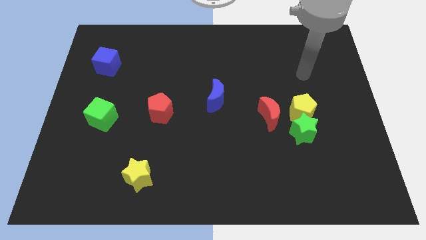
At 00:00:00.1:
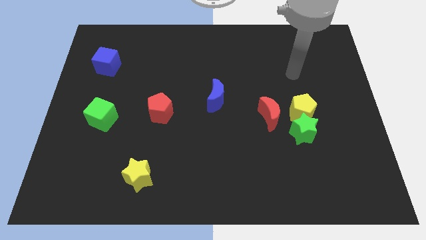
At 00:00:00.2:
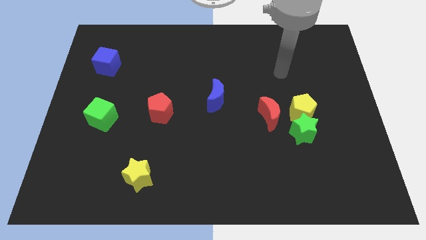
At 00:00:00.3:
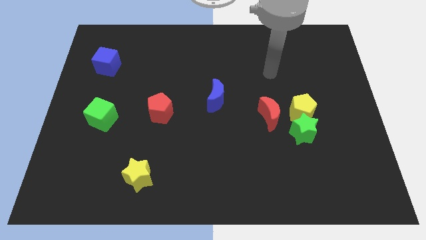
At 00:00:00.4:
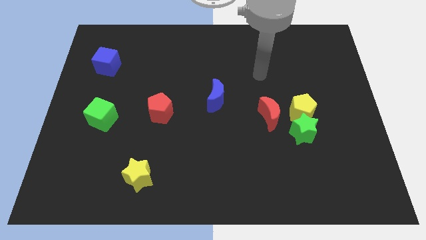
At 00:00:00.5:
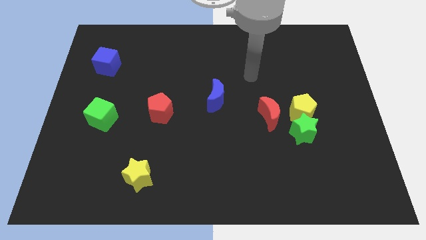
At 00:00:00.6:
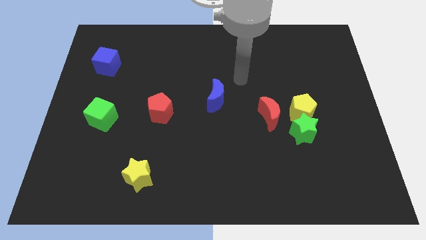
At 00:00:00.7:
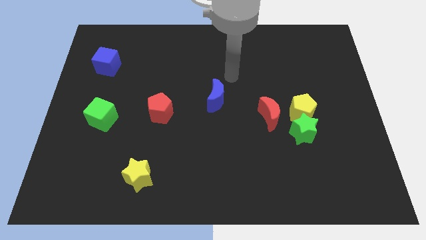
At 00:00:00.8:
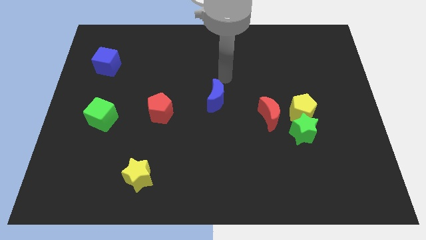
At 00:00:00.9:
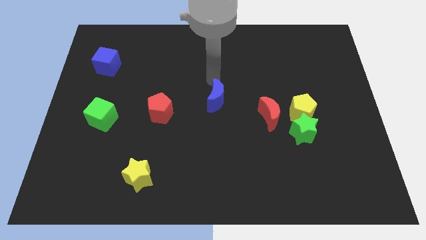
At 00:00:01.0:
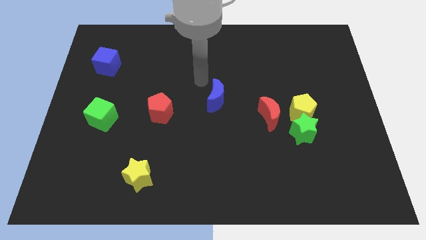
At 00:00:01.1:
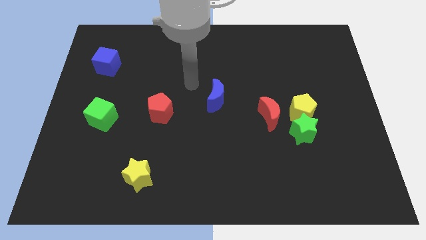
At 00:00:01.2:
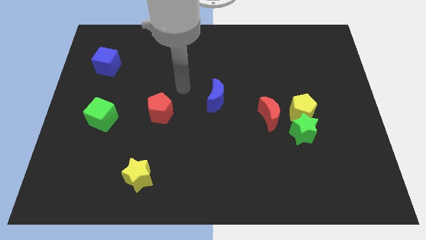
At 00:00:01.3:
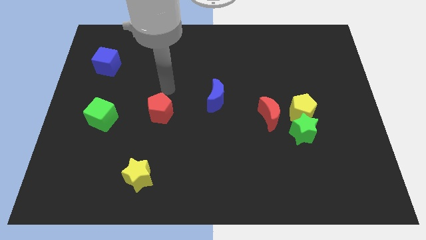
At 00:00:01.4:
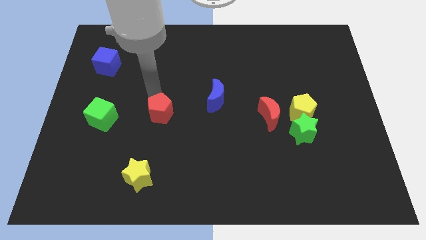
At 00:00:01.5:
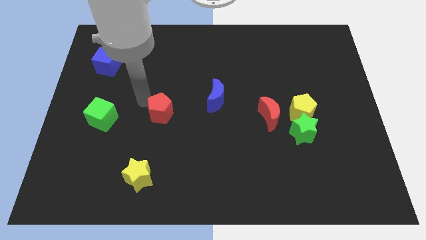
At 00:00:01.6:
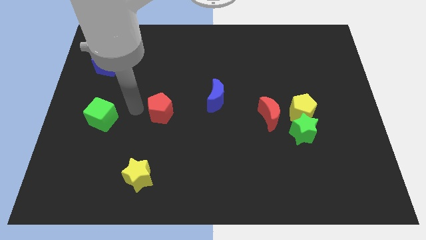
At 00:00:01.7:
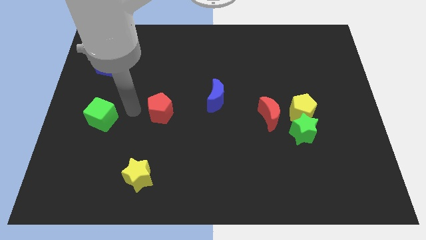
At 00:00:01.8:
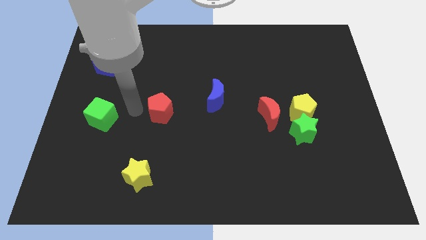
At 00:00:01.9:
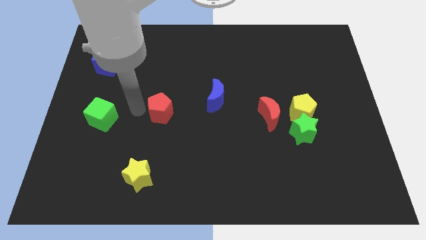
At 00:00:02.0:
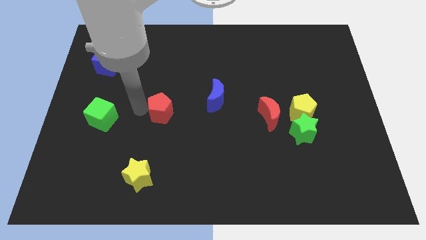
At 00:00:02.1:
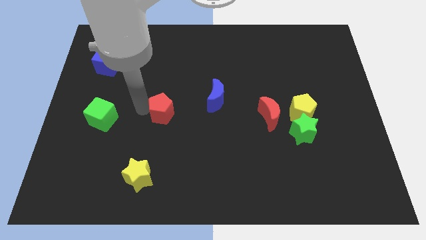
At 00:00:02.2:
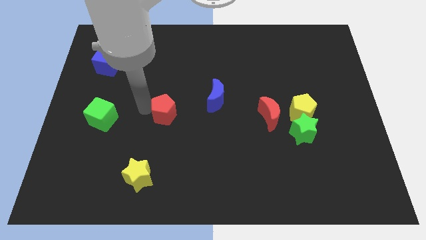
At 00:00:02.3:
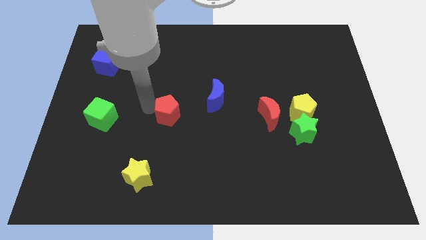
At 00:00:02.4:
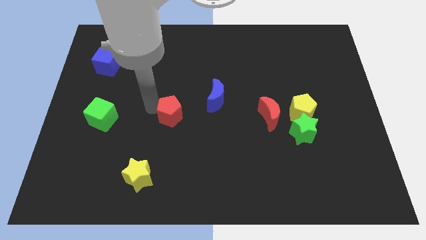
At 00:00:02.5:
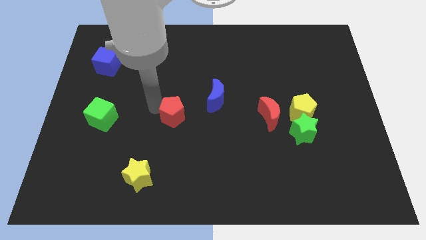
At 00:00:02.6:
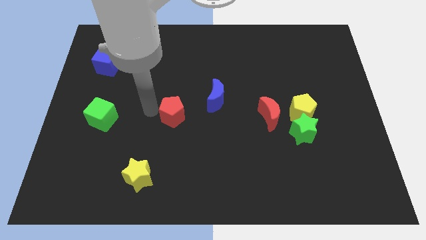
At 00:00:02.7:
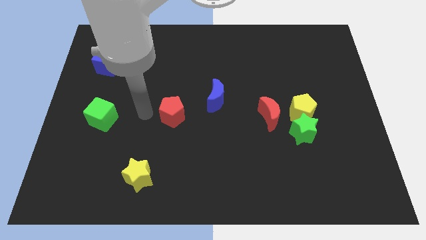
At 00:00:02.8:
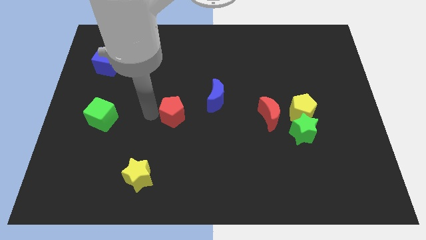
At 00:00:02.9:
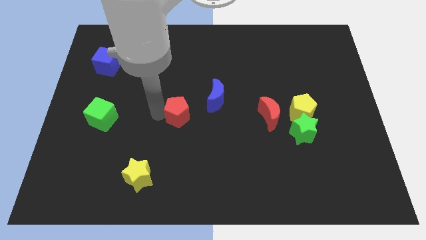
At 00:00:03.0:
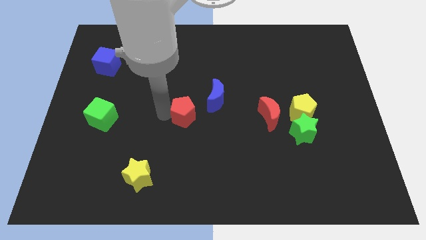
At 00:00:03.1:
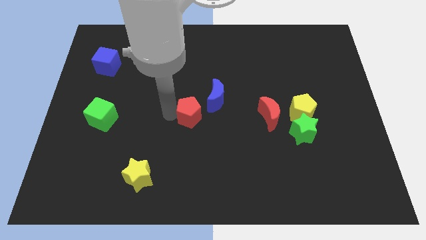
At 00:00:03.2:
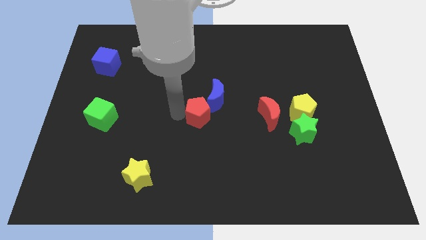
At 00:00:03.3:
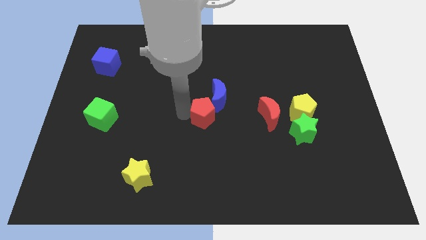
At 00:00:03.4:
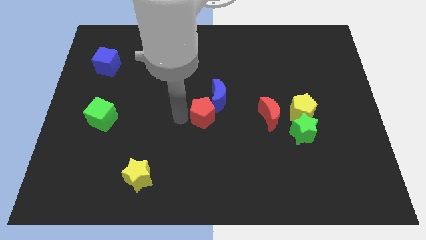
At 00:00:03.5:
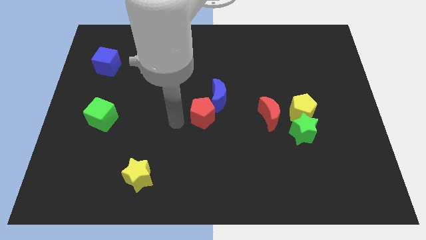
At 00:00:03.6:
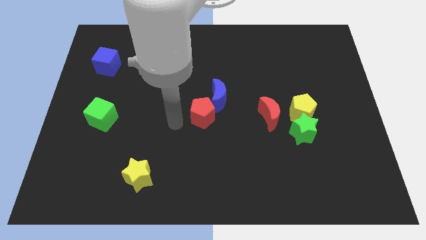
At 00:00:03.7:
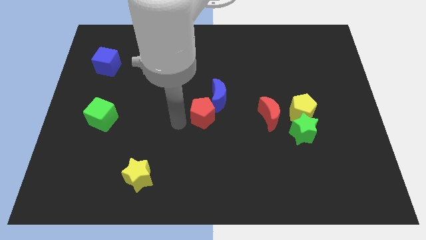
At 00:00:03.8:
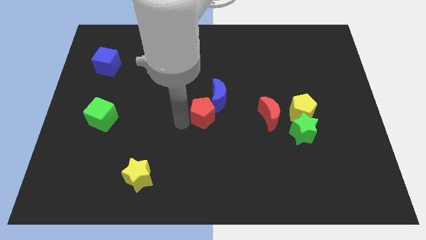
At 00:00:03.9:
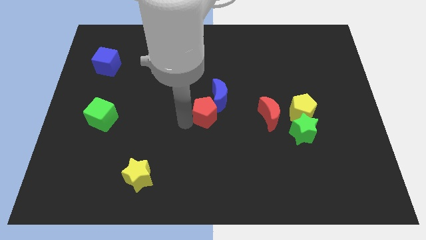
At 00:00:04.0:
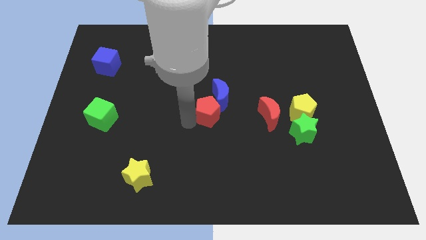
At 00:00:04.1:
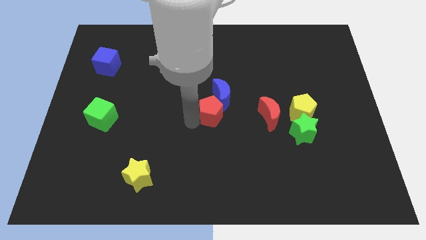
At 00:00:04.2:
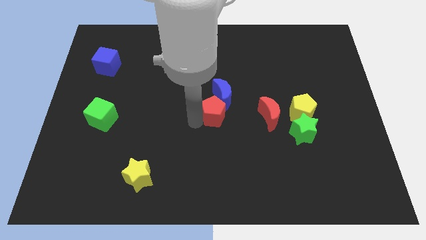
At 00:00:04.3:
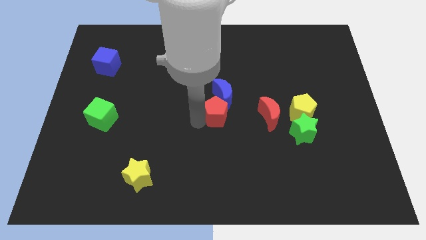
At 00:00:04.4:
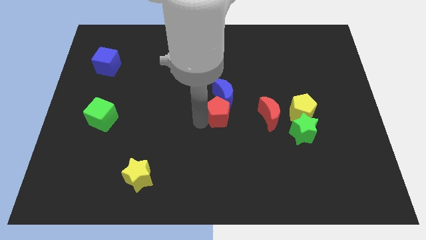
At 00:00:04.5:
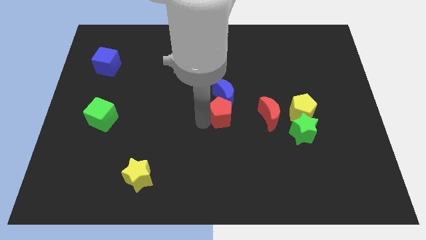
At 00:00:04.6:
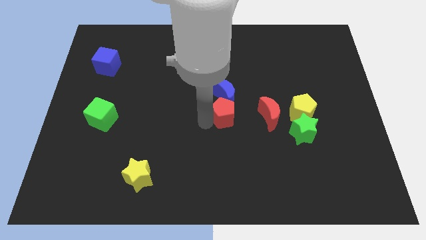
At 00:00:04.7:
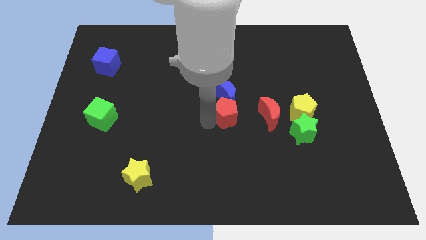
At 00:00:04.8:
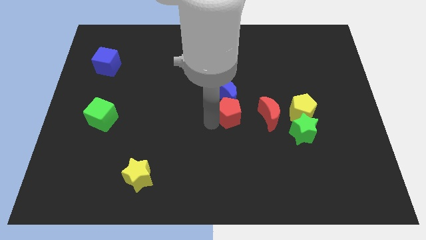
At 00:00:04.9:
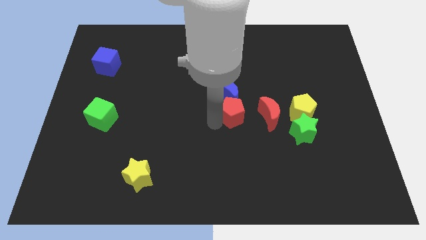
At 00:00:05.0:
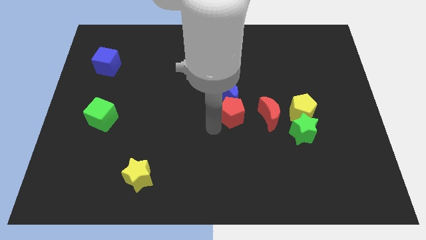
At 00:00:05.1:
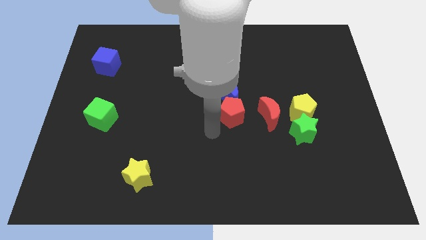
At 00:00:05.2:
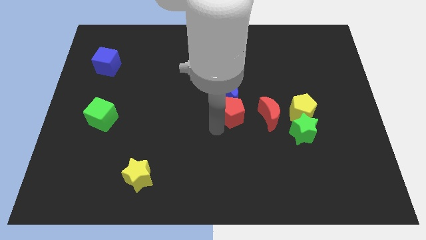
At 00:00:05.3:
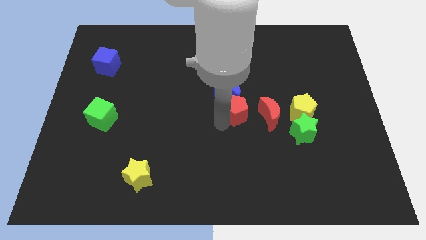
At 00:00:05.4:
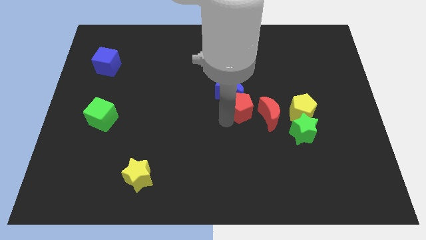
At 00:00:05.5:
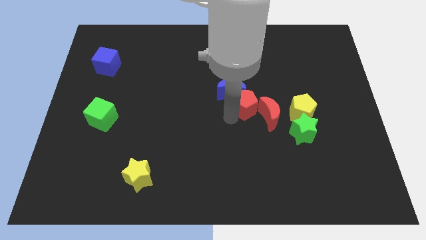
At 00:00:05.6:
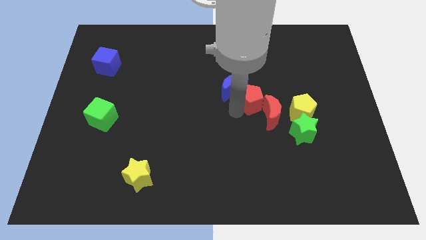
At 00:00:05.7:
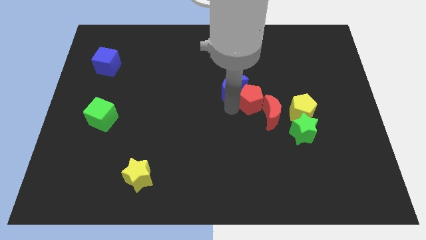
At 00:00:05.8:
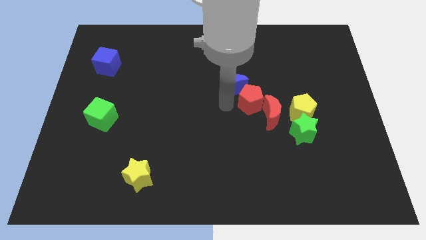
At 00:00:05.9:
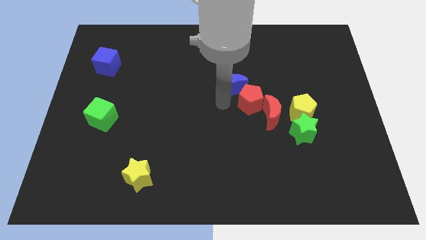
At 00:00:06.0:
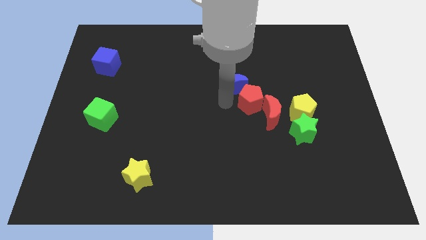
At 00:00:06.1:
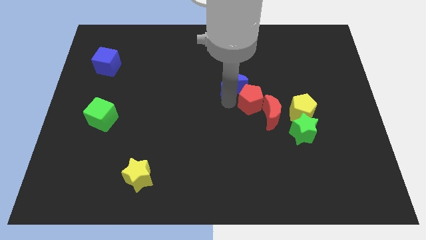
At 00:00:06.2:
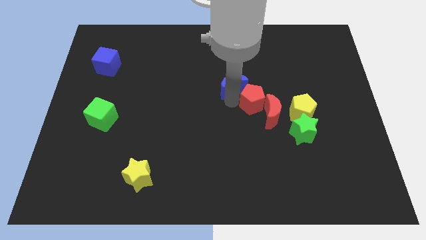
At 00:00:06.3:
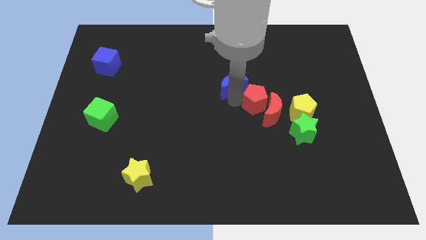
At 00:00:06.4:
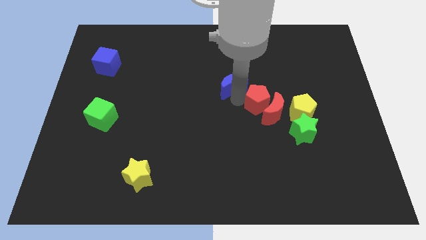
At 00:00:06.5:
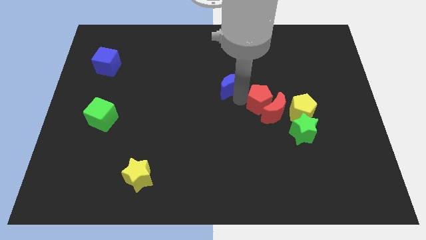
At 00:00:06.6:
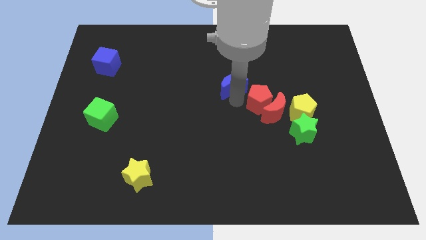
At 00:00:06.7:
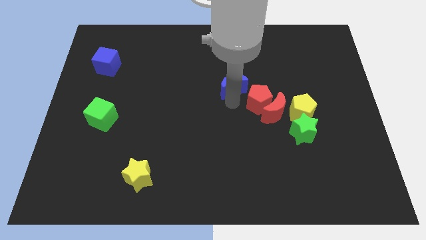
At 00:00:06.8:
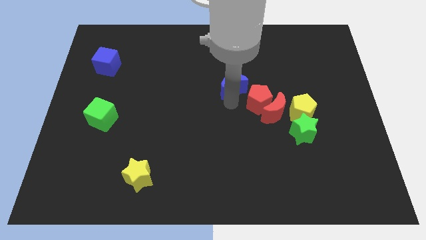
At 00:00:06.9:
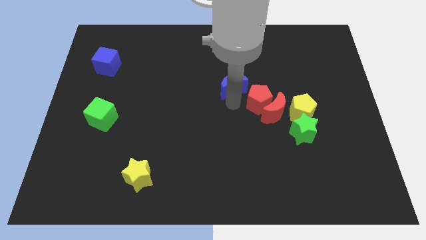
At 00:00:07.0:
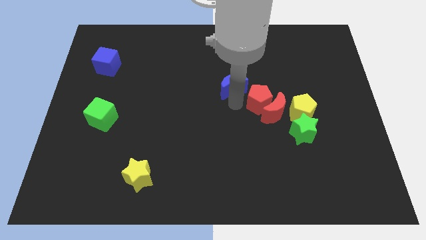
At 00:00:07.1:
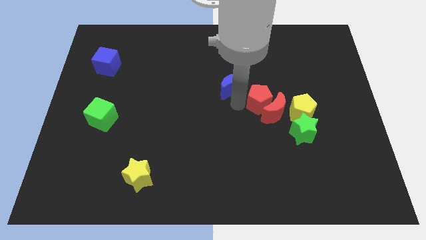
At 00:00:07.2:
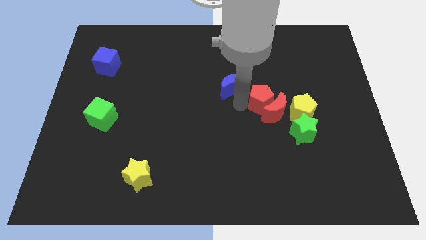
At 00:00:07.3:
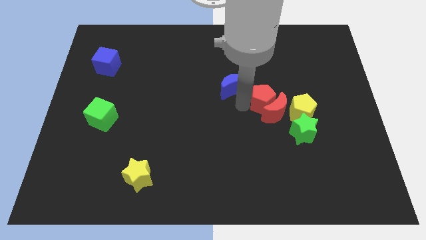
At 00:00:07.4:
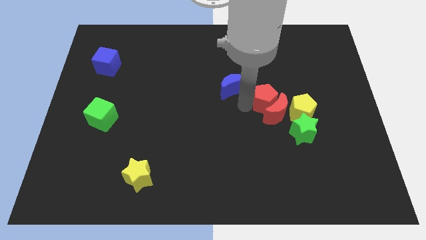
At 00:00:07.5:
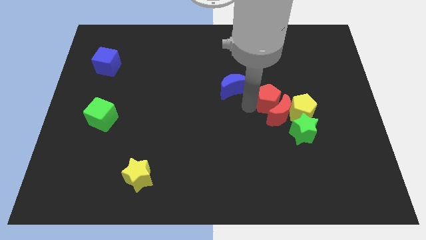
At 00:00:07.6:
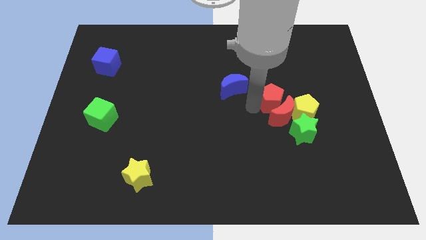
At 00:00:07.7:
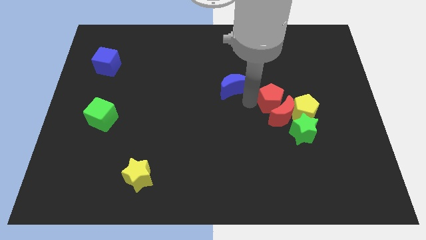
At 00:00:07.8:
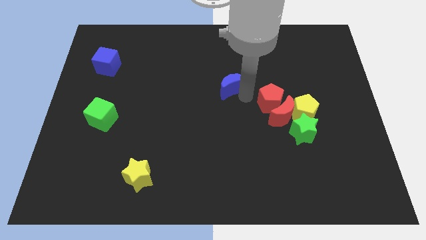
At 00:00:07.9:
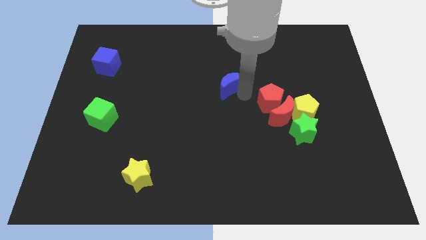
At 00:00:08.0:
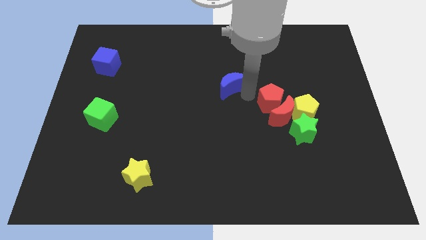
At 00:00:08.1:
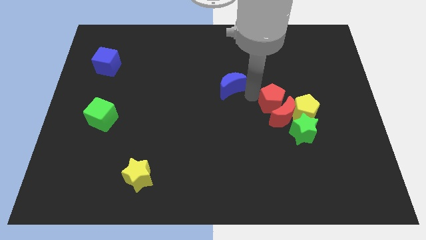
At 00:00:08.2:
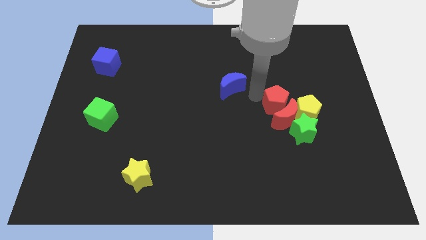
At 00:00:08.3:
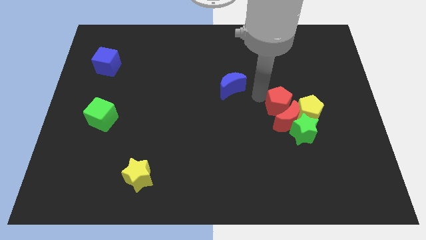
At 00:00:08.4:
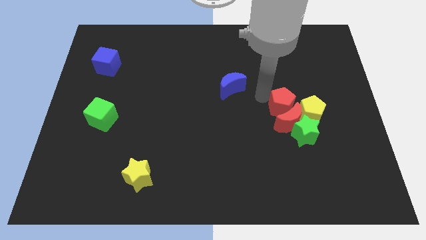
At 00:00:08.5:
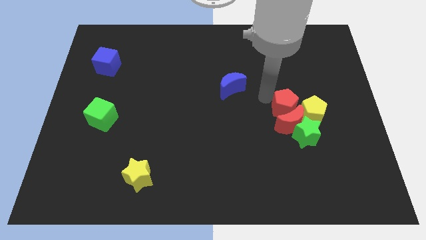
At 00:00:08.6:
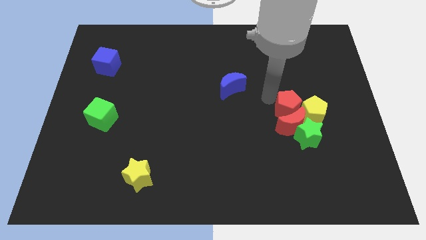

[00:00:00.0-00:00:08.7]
slide the red pentagon close to the yellow pentagon
